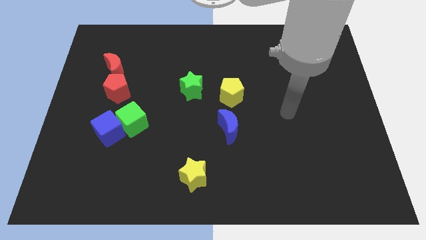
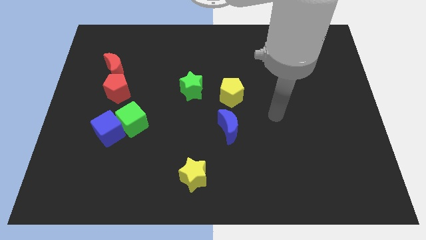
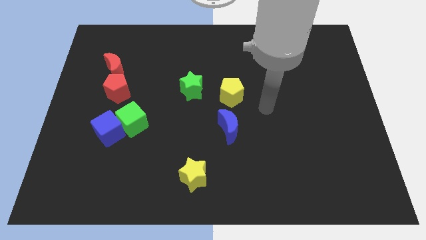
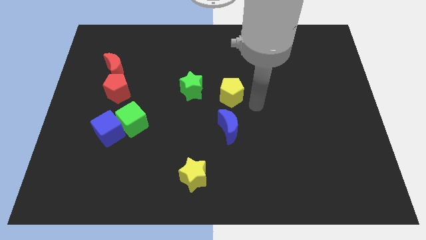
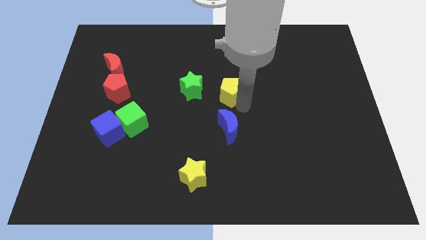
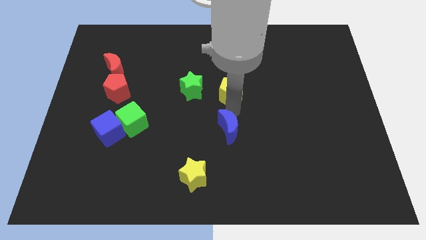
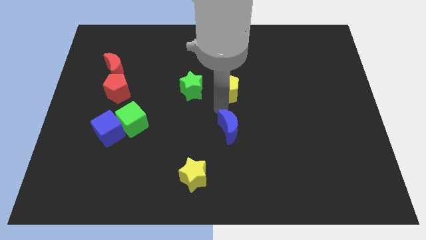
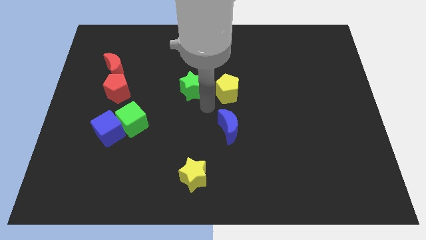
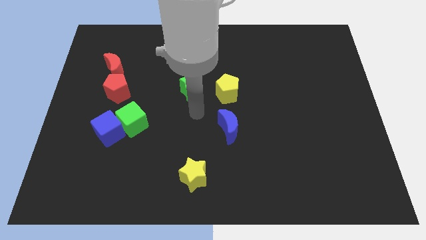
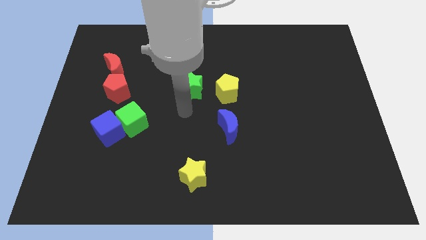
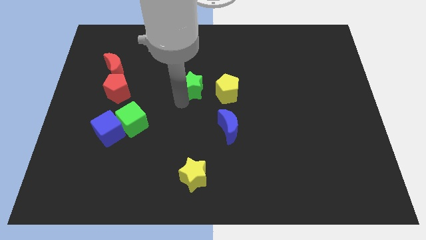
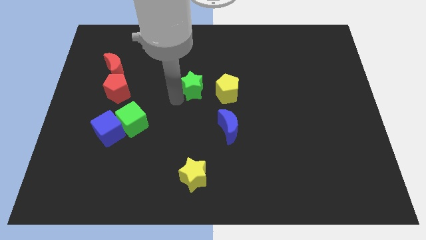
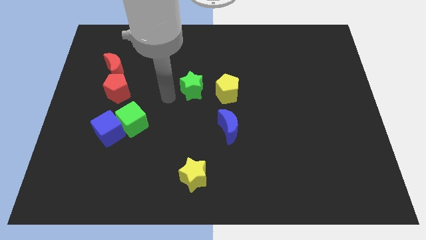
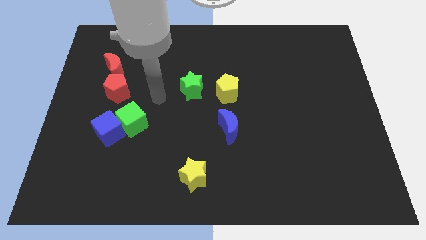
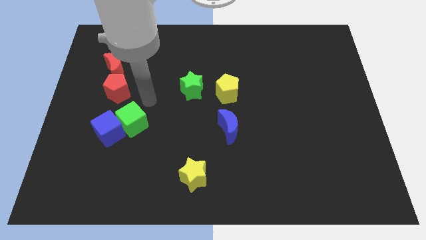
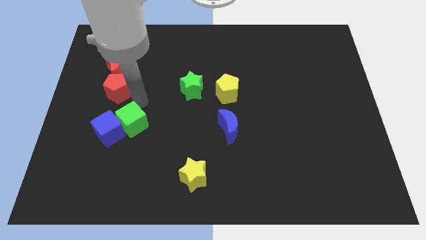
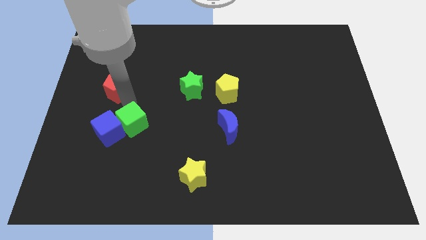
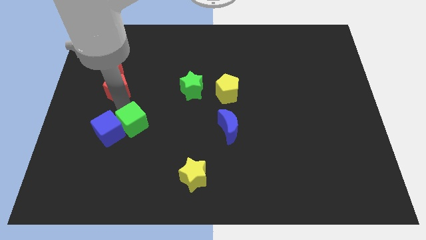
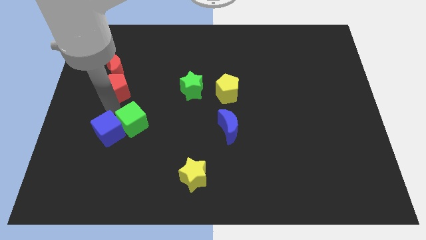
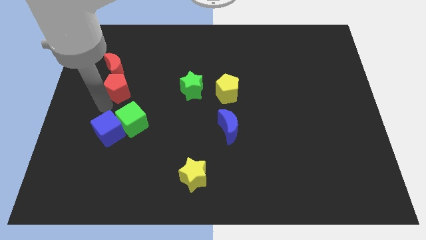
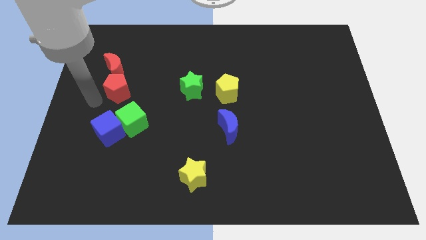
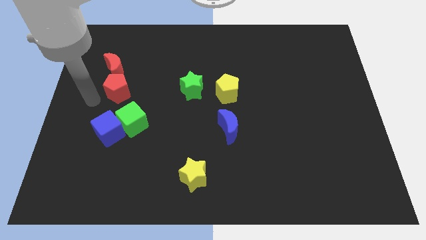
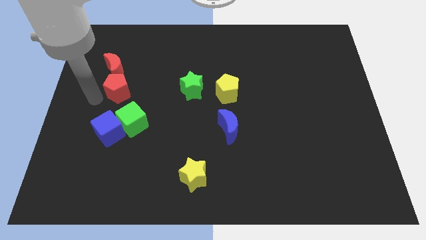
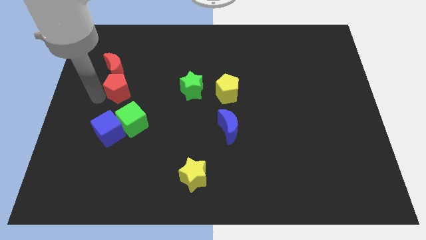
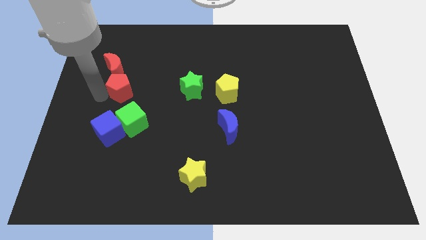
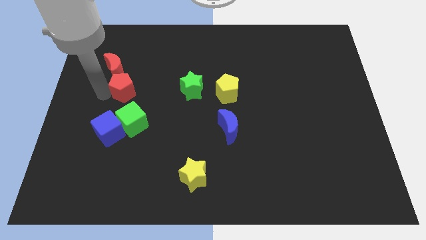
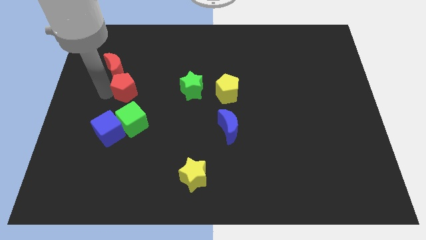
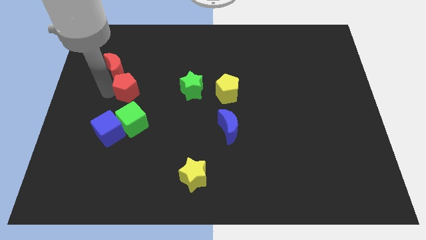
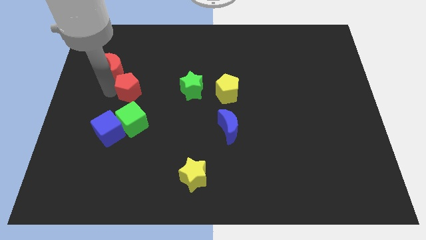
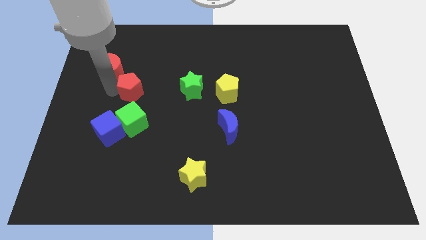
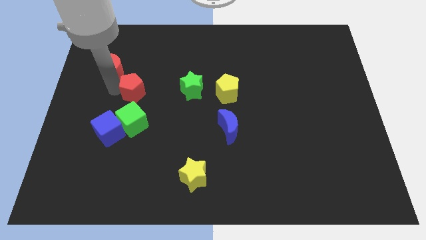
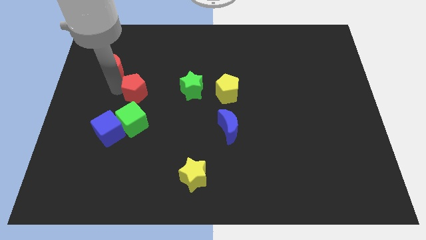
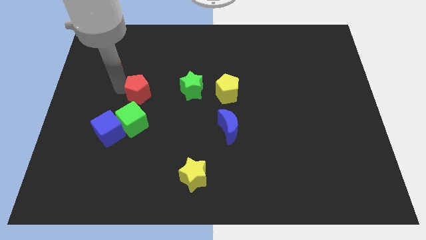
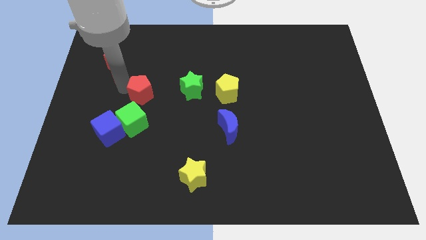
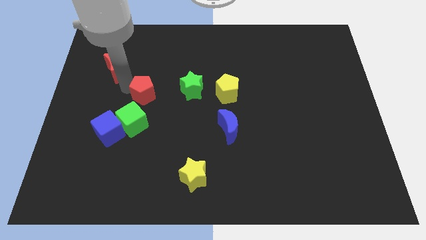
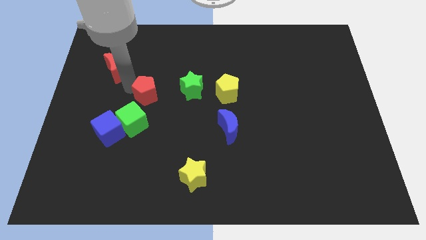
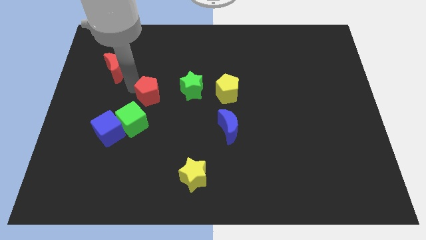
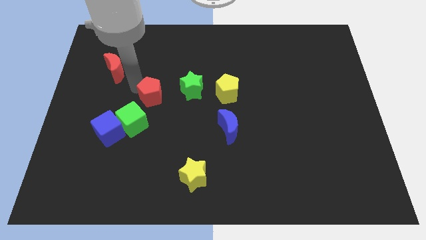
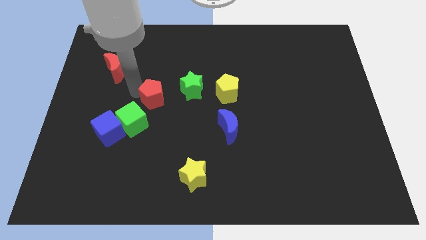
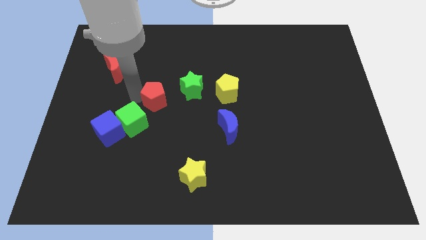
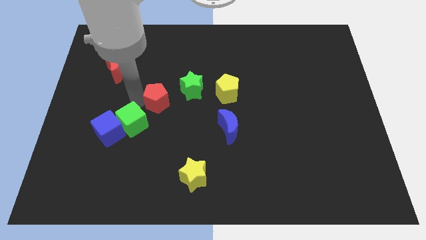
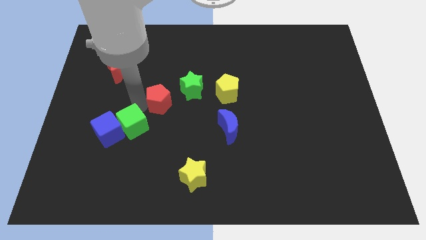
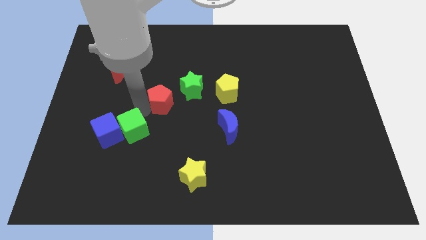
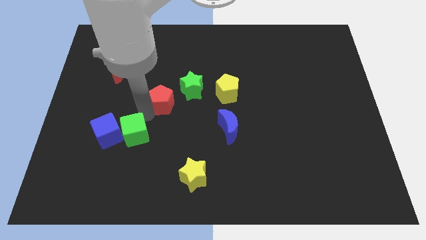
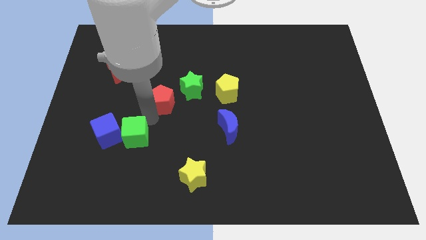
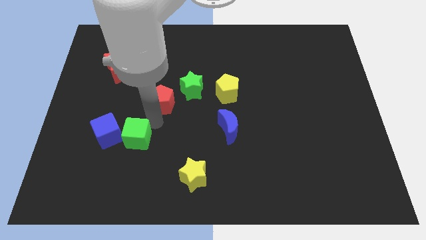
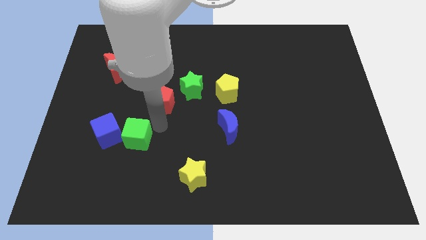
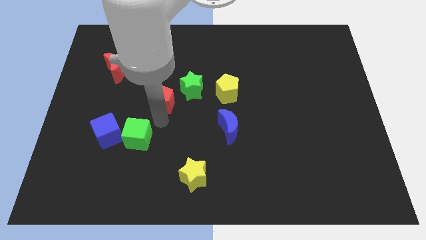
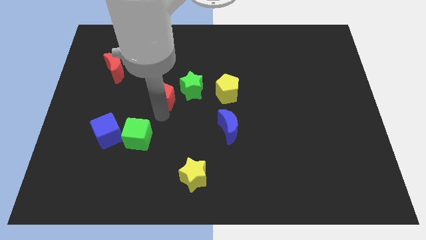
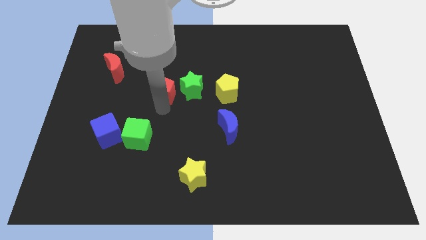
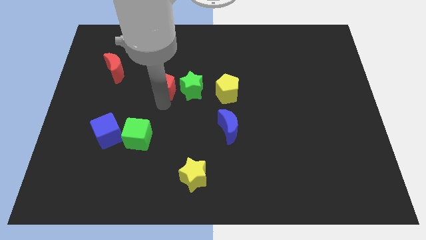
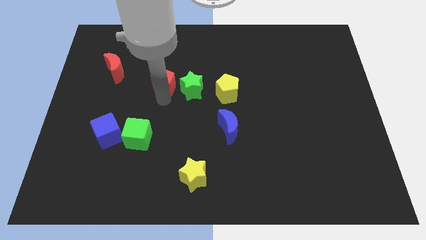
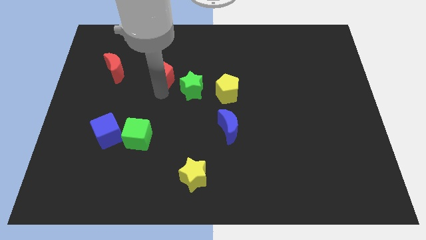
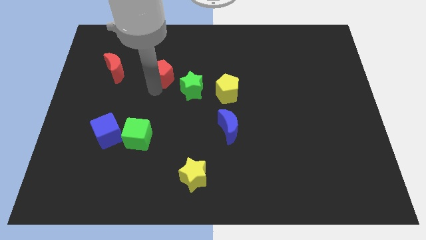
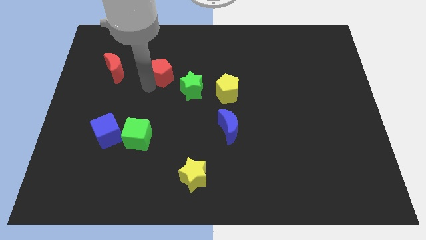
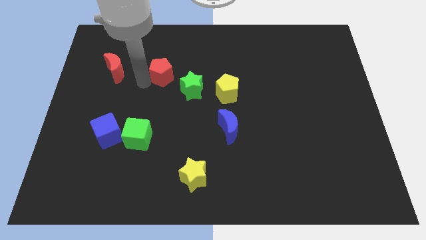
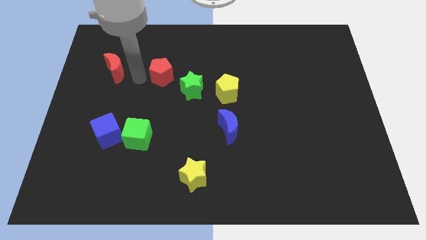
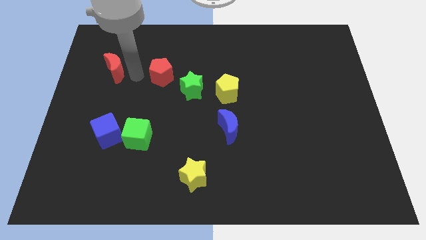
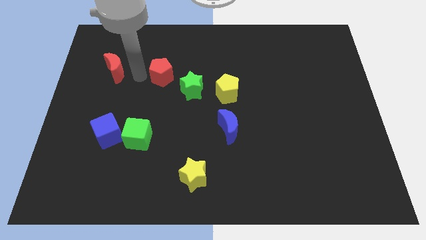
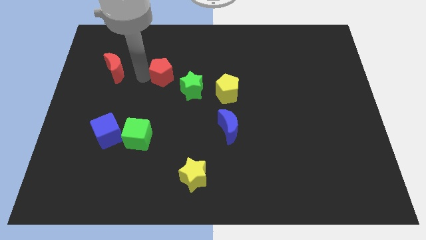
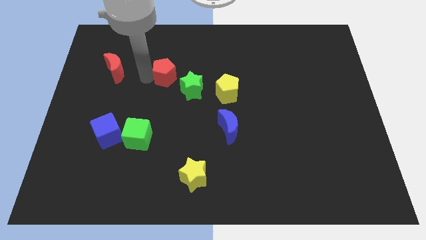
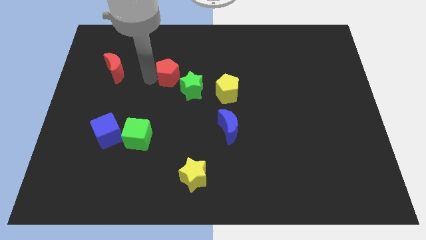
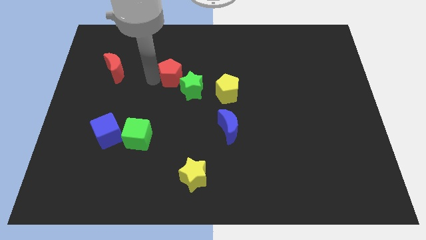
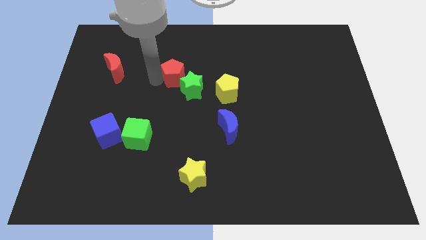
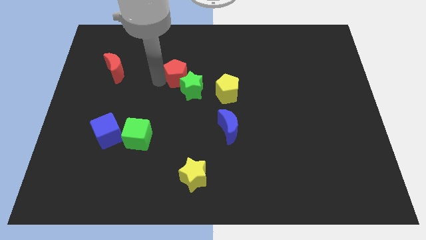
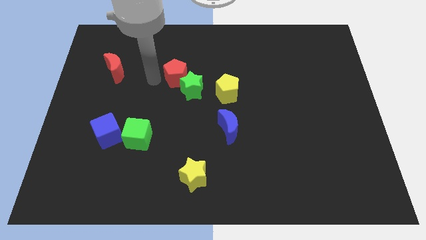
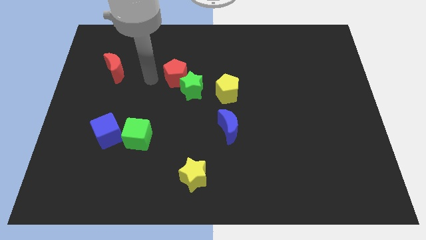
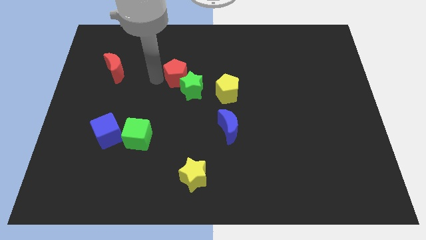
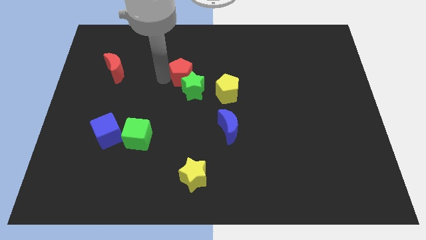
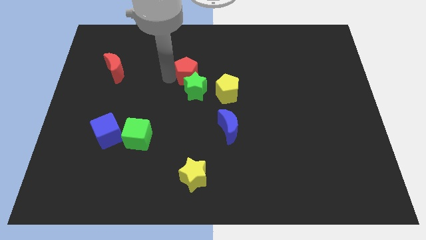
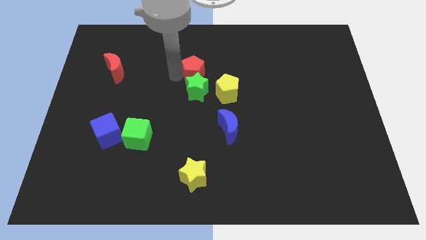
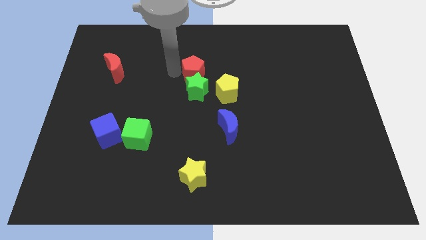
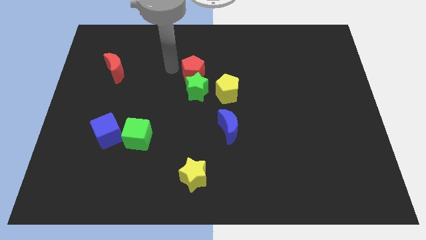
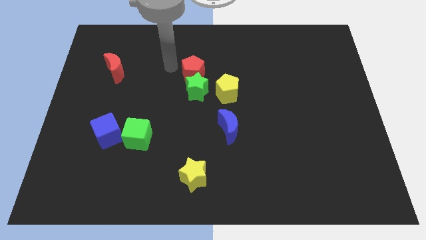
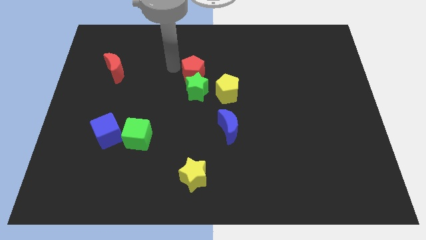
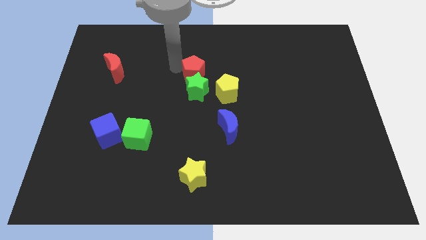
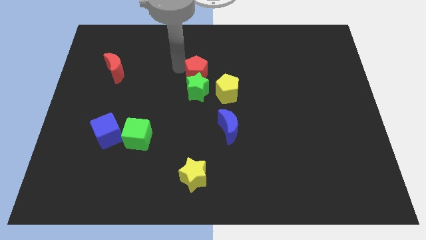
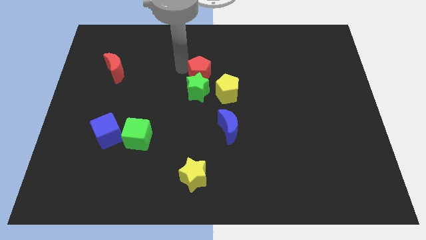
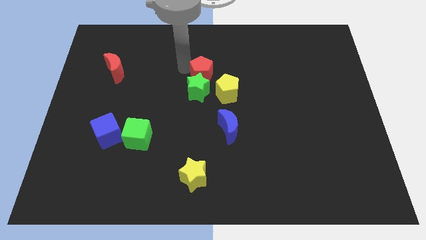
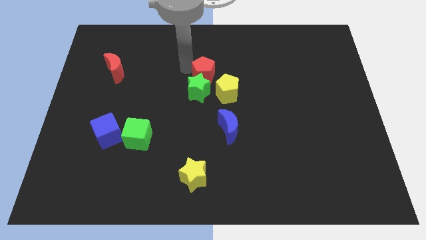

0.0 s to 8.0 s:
push the red pentagon to the right

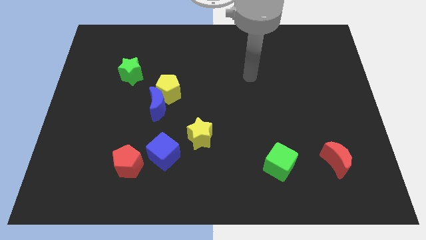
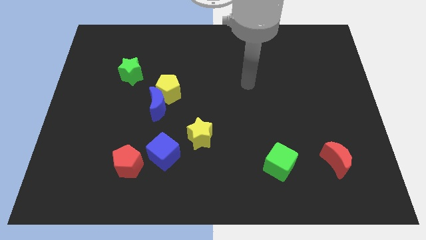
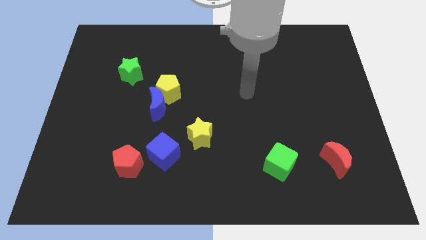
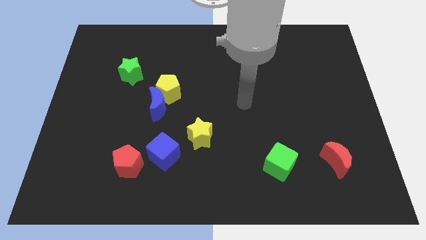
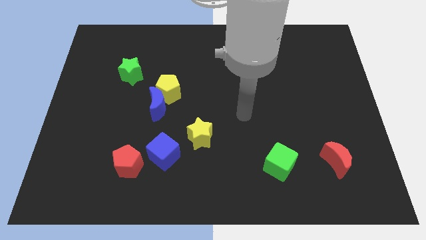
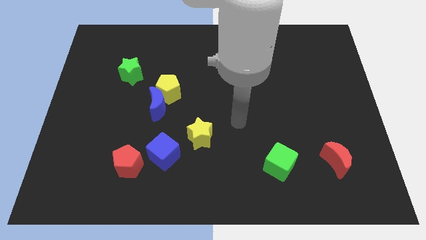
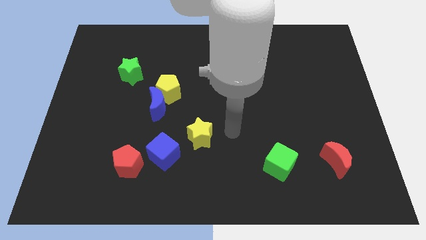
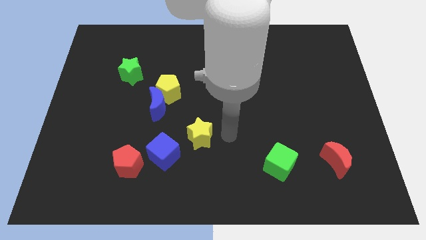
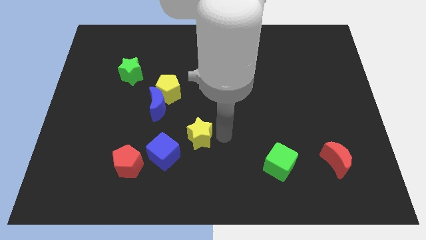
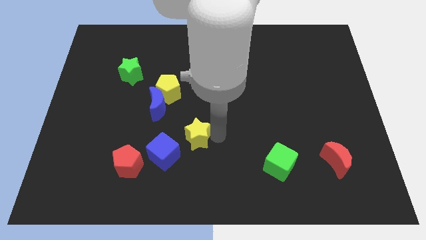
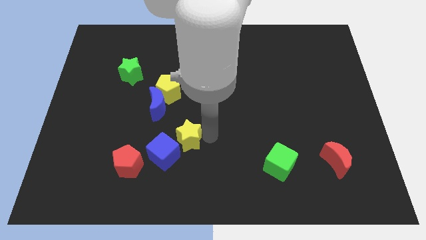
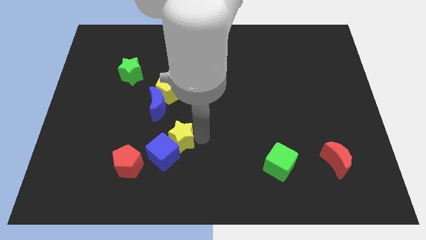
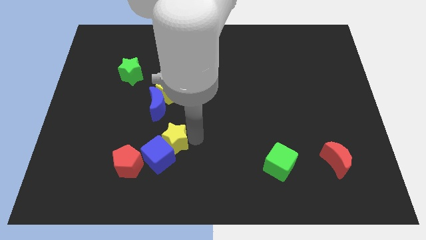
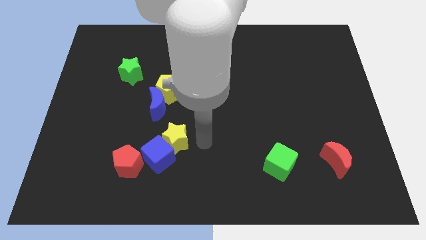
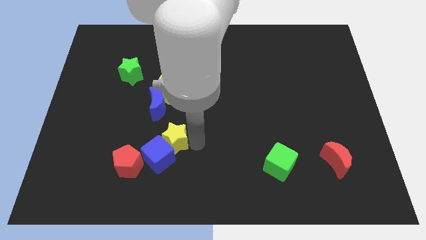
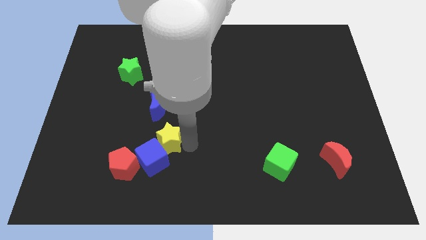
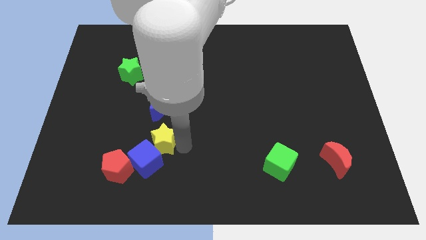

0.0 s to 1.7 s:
slightly slide the yellow star left
